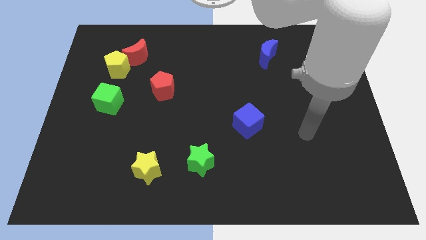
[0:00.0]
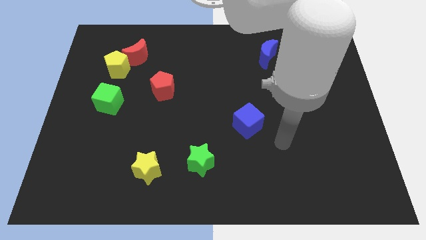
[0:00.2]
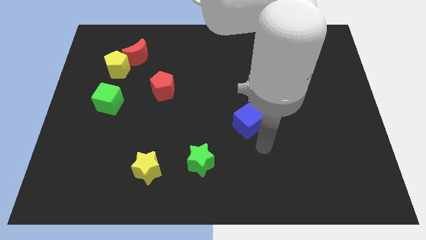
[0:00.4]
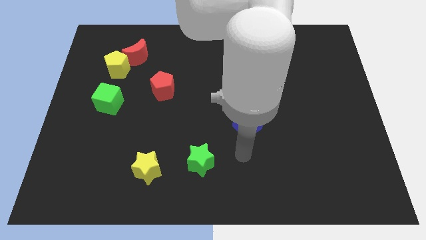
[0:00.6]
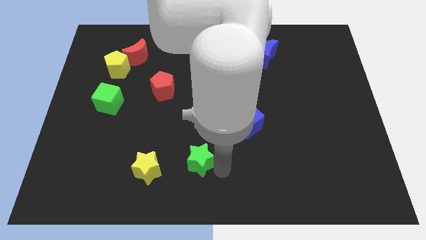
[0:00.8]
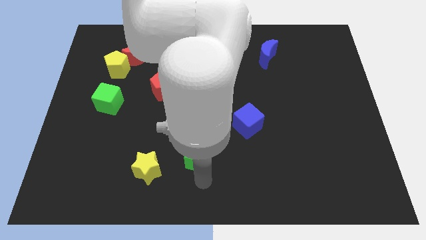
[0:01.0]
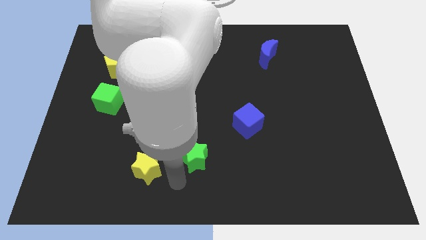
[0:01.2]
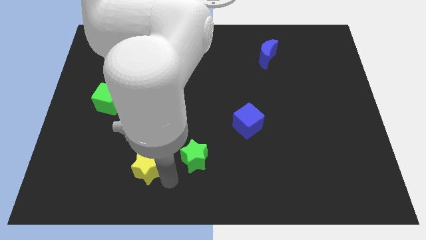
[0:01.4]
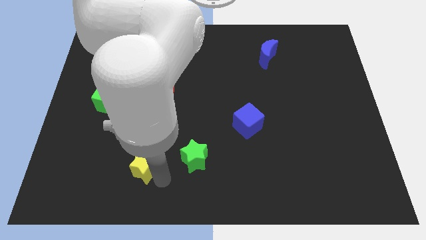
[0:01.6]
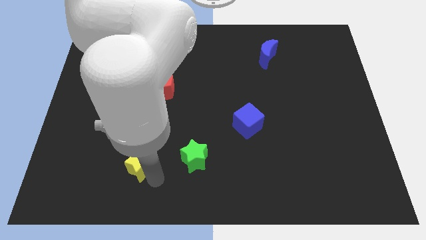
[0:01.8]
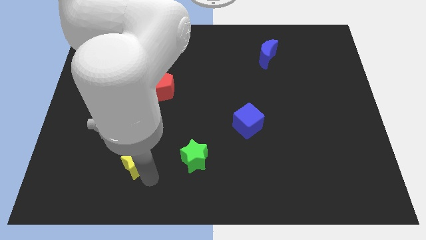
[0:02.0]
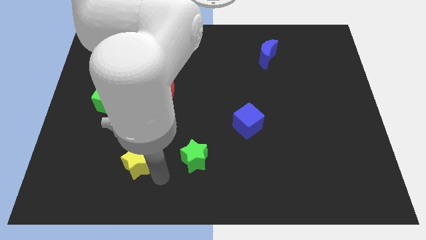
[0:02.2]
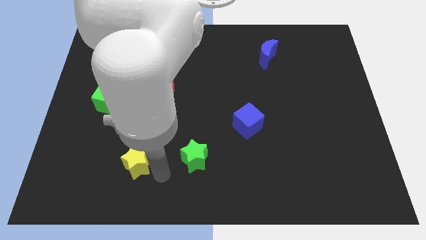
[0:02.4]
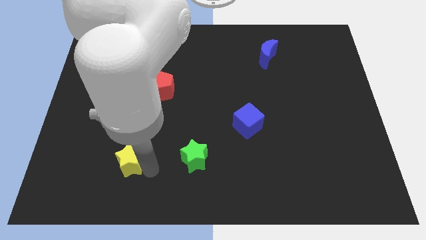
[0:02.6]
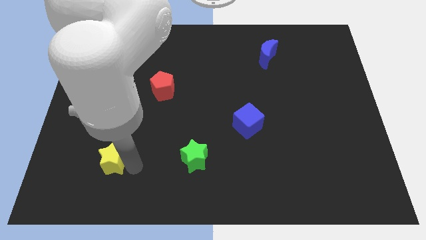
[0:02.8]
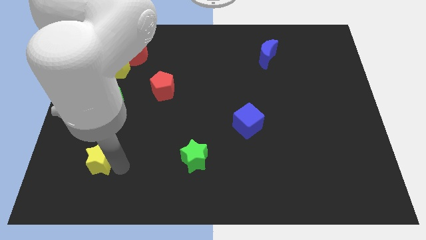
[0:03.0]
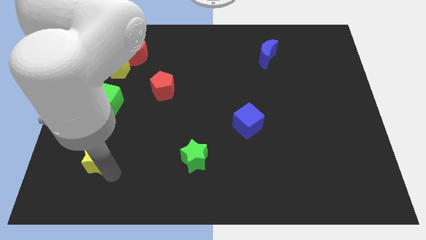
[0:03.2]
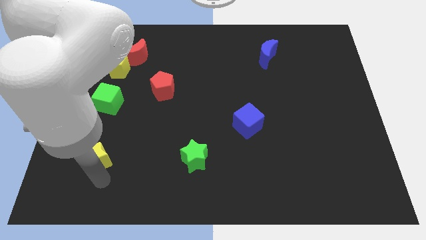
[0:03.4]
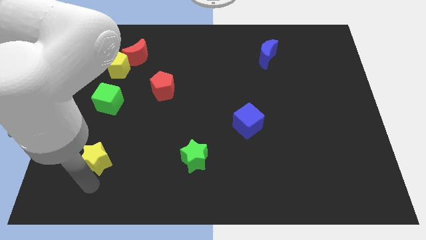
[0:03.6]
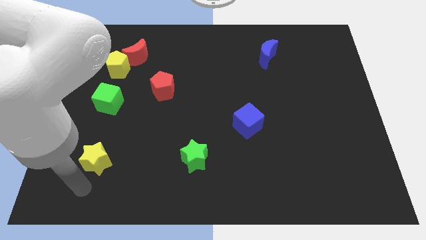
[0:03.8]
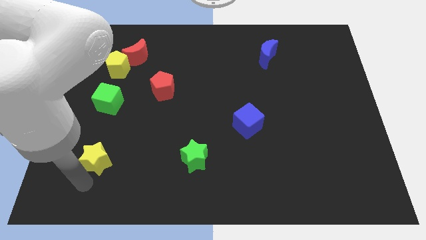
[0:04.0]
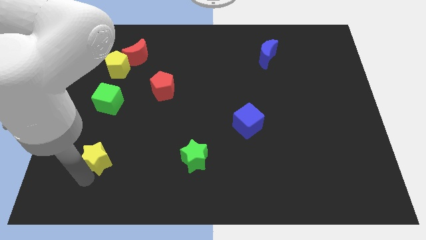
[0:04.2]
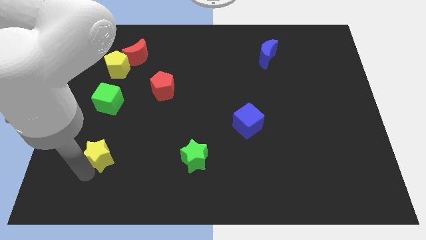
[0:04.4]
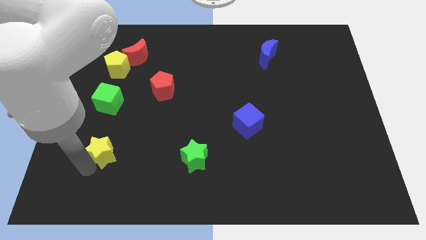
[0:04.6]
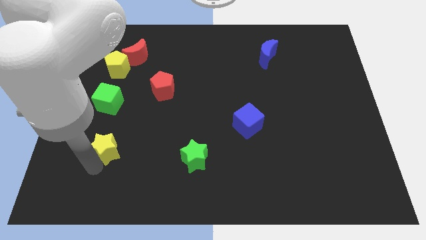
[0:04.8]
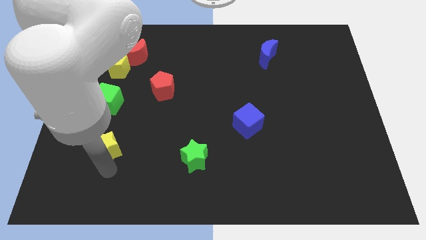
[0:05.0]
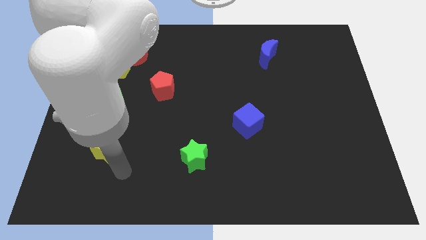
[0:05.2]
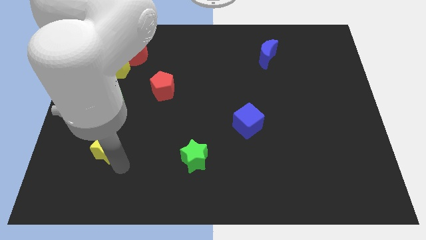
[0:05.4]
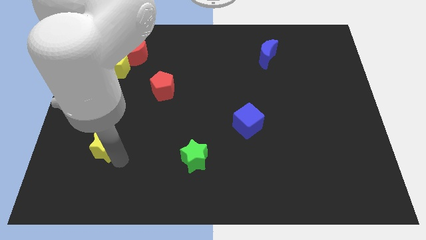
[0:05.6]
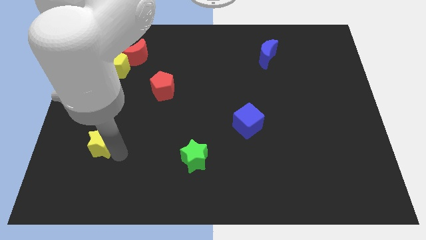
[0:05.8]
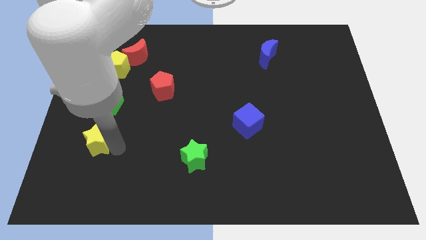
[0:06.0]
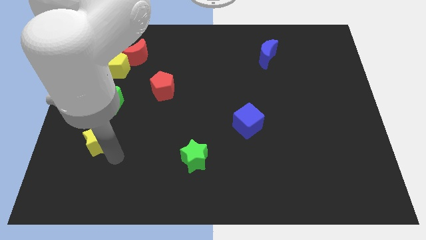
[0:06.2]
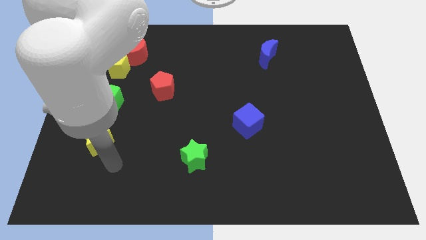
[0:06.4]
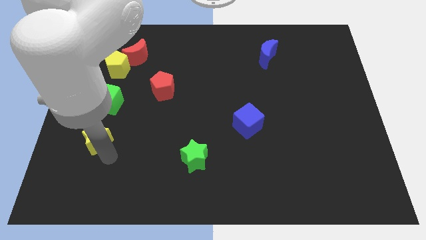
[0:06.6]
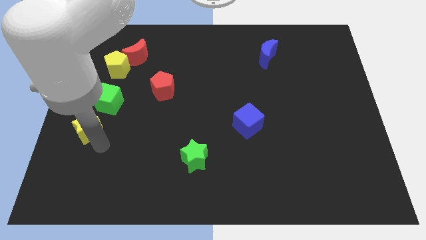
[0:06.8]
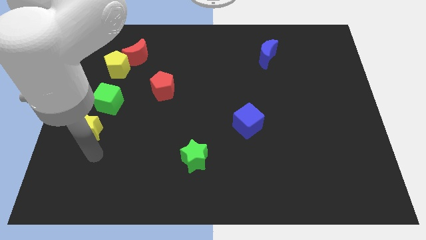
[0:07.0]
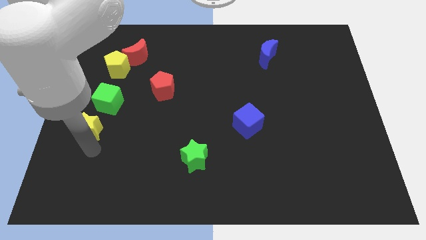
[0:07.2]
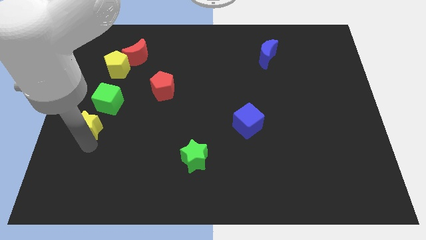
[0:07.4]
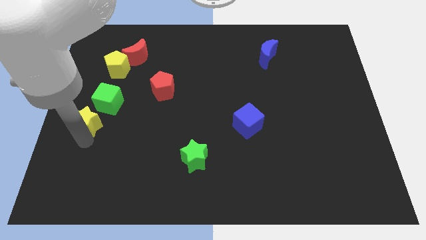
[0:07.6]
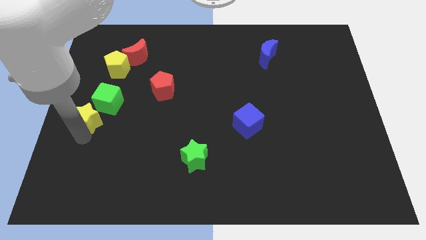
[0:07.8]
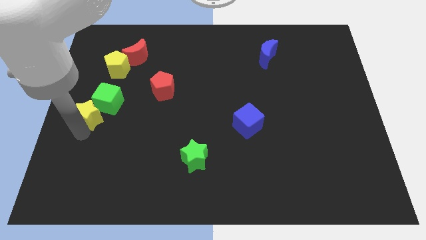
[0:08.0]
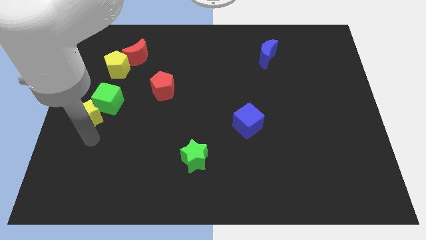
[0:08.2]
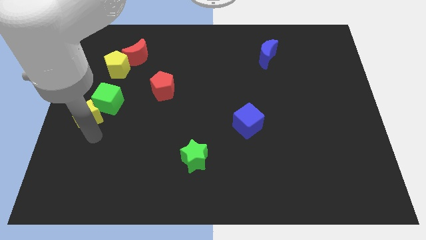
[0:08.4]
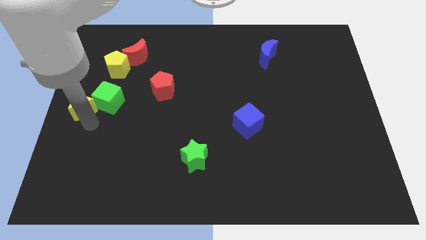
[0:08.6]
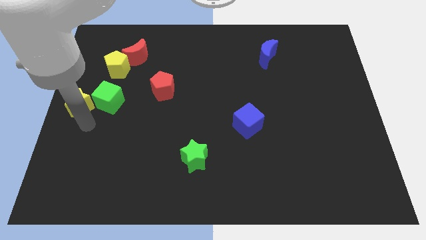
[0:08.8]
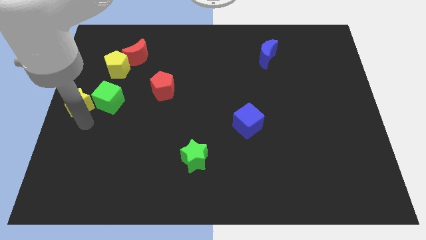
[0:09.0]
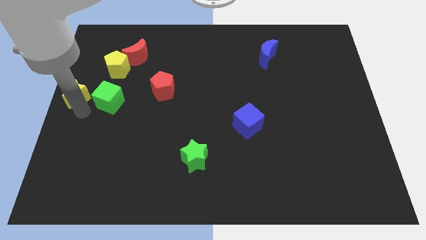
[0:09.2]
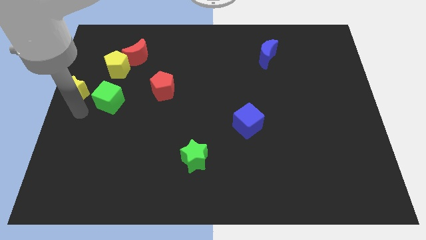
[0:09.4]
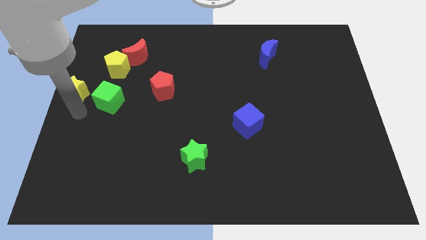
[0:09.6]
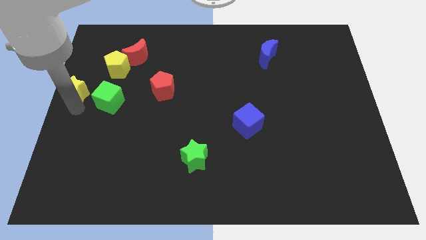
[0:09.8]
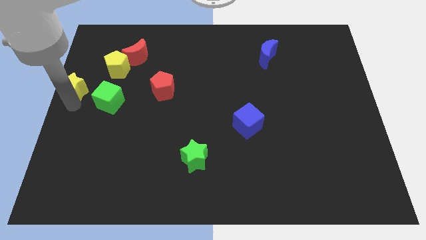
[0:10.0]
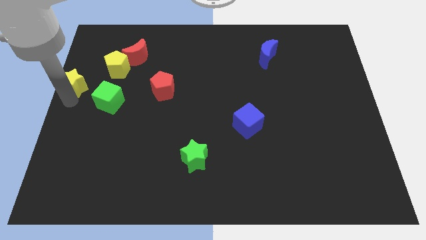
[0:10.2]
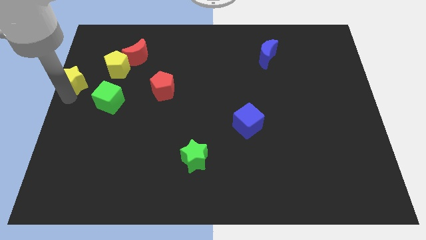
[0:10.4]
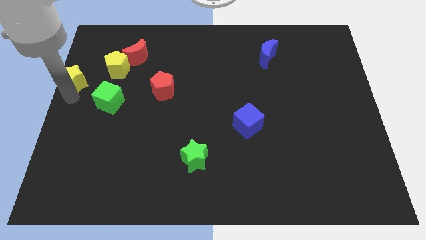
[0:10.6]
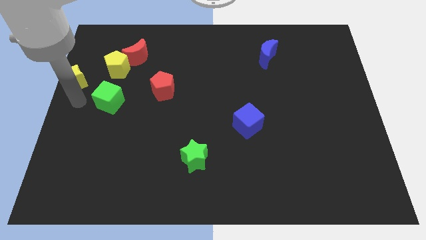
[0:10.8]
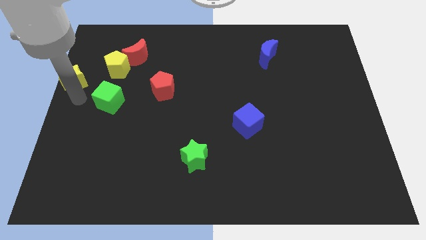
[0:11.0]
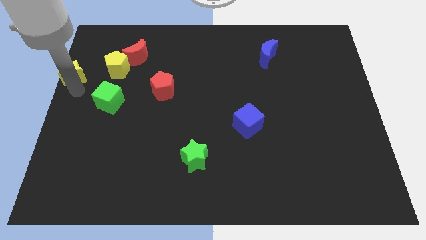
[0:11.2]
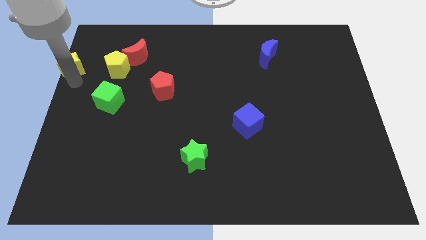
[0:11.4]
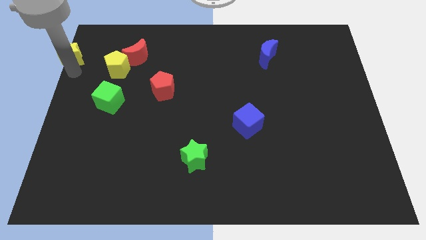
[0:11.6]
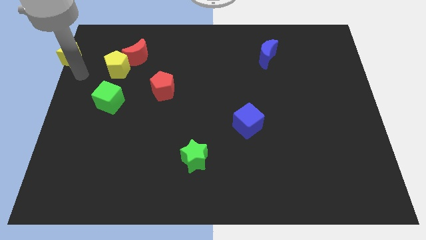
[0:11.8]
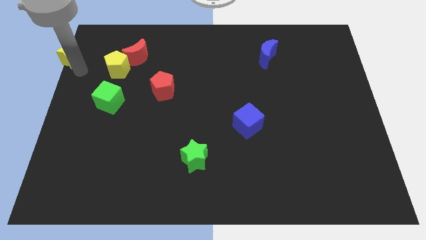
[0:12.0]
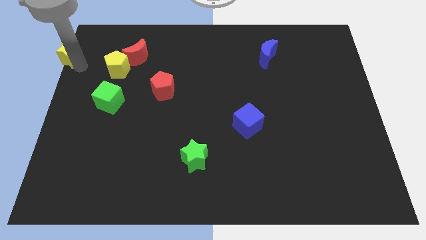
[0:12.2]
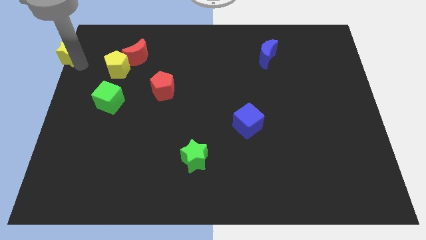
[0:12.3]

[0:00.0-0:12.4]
push the yellow star to the top left

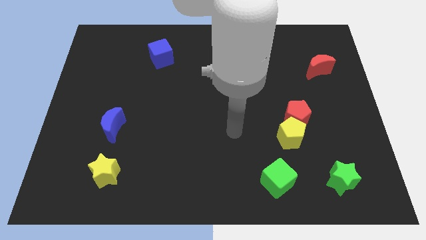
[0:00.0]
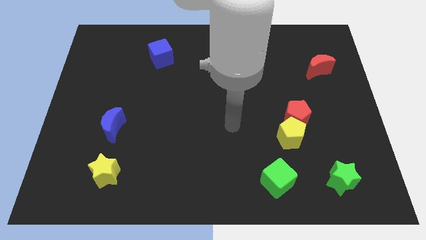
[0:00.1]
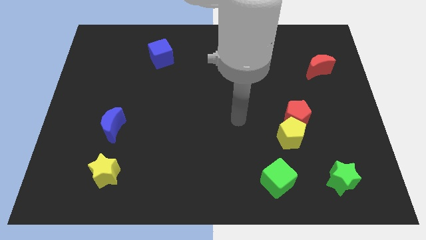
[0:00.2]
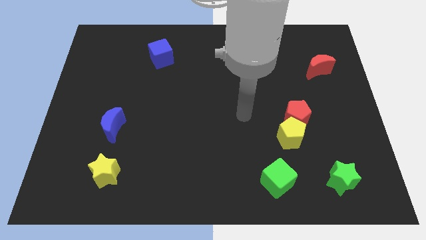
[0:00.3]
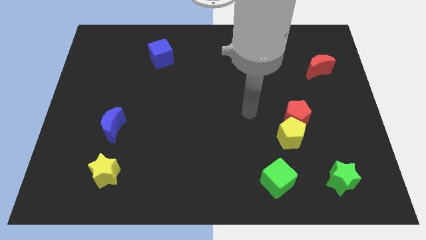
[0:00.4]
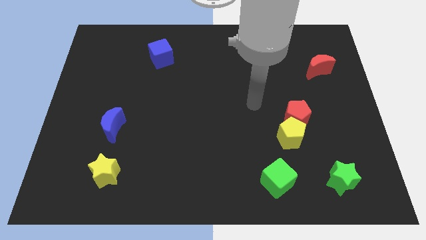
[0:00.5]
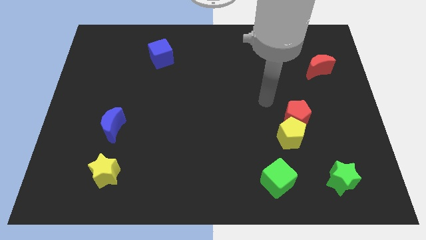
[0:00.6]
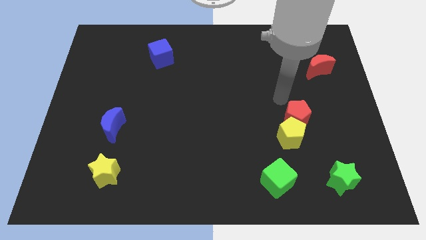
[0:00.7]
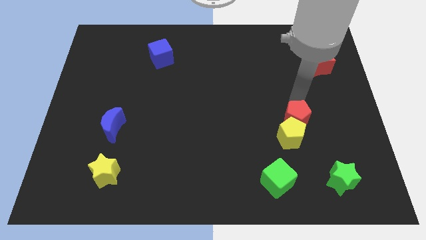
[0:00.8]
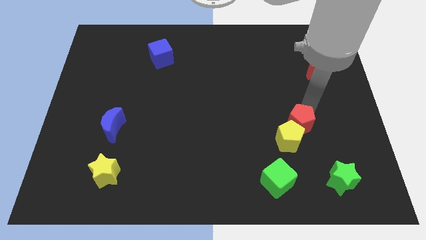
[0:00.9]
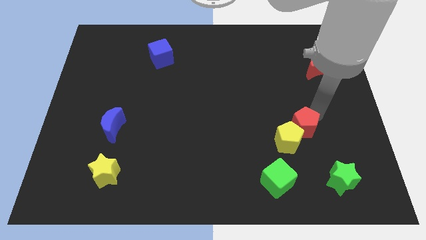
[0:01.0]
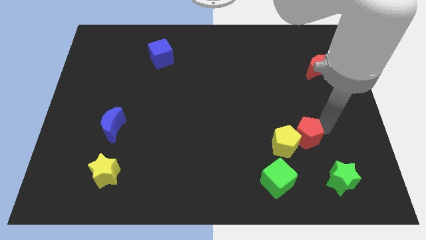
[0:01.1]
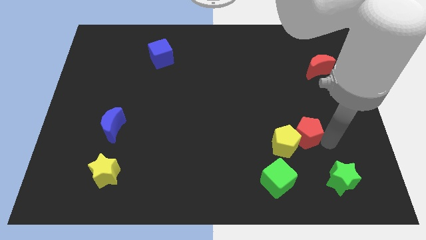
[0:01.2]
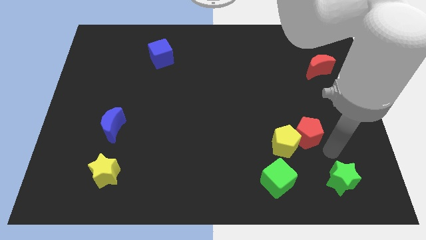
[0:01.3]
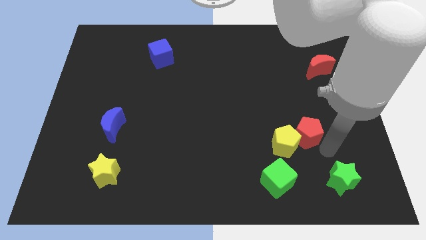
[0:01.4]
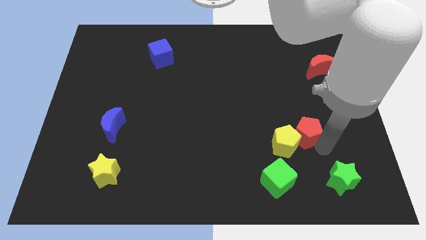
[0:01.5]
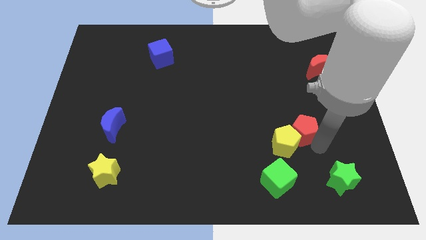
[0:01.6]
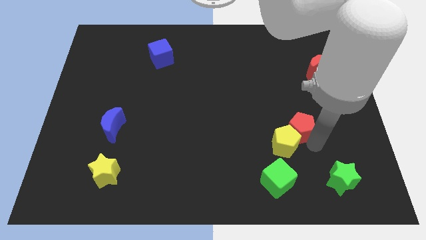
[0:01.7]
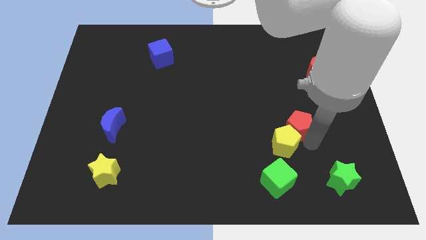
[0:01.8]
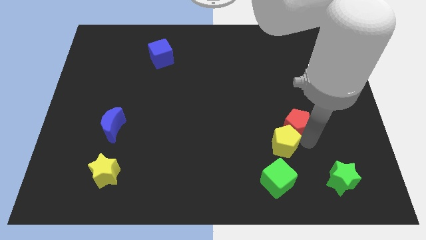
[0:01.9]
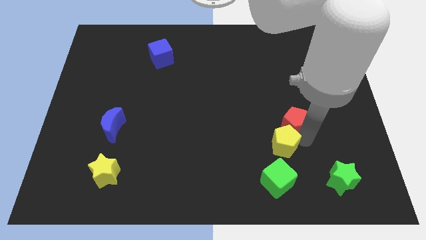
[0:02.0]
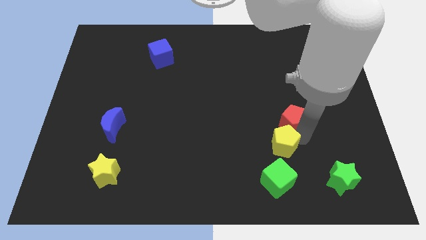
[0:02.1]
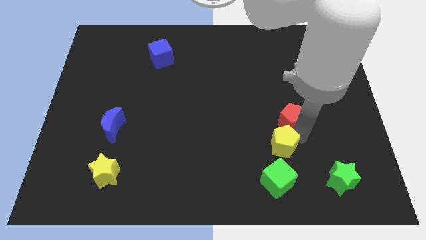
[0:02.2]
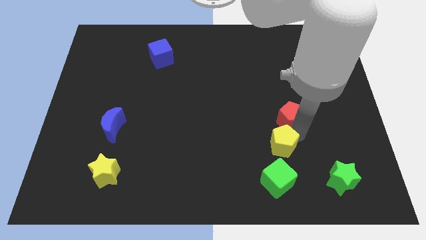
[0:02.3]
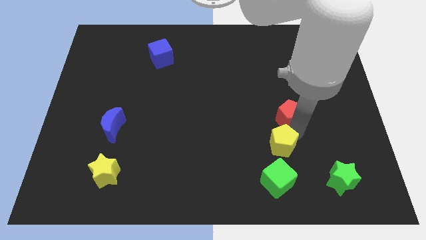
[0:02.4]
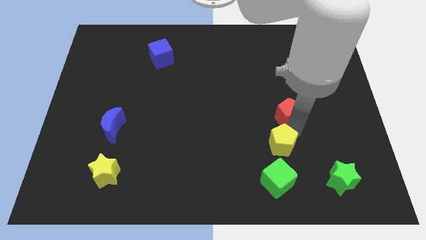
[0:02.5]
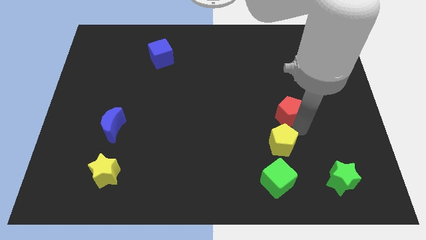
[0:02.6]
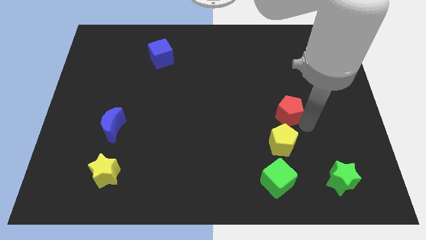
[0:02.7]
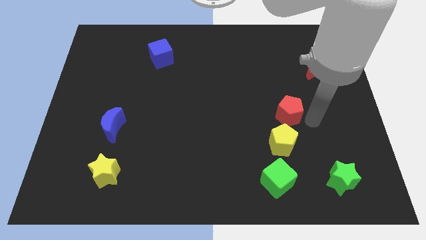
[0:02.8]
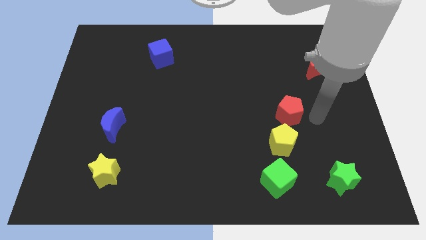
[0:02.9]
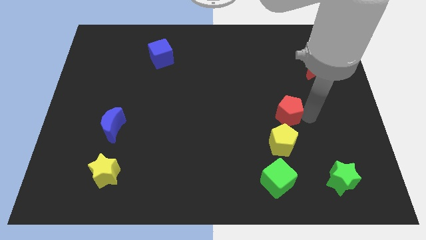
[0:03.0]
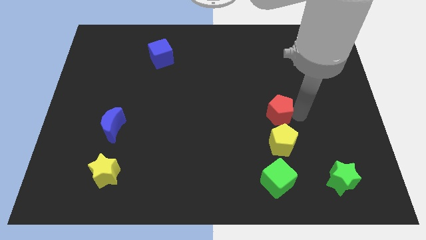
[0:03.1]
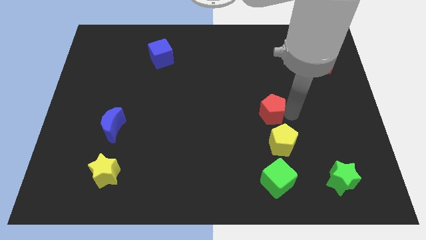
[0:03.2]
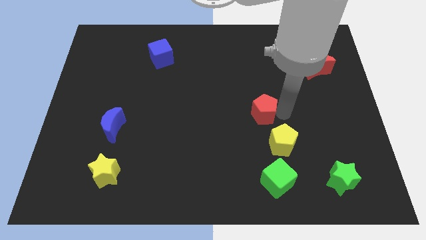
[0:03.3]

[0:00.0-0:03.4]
slide the red pentagon to the center of the board
